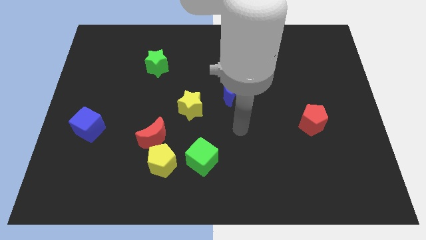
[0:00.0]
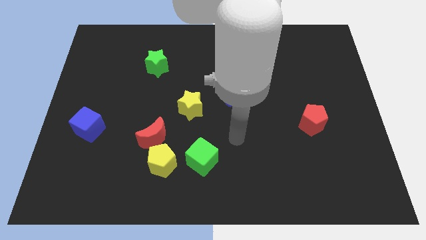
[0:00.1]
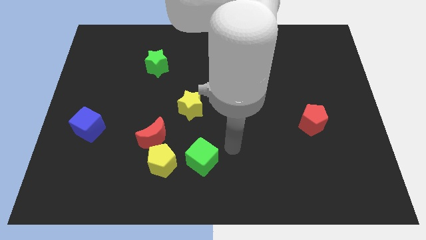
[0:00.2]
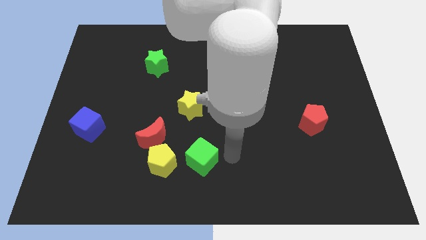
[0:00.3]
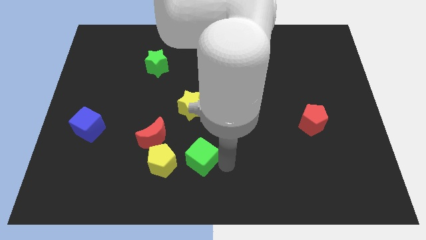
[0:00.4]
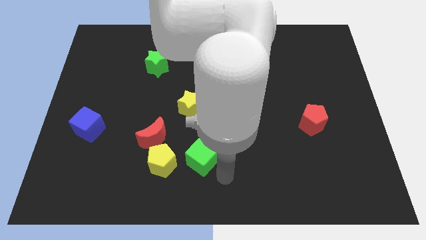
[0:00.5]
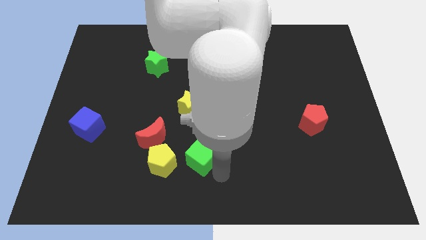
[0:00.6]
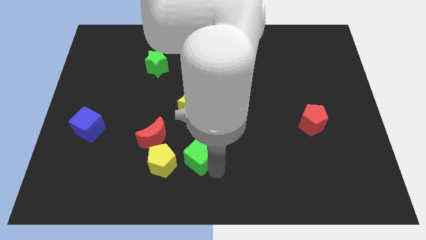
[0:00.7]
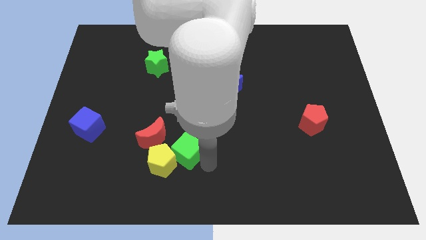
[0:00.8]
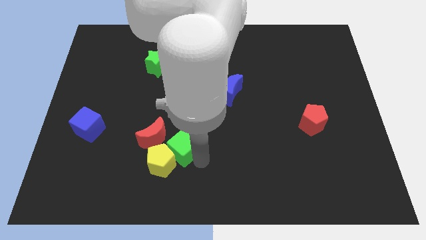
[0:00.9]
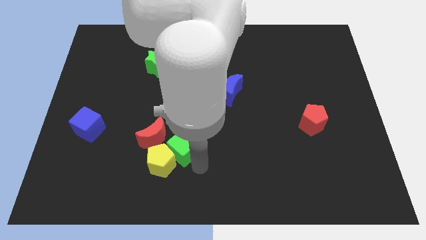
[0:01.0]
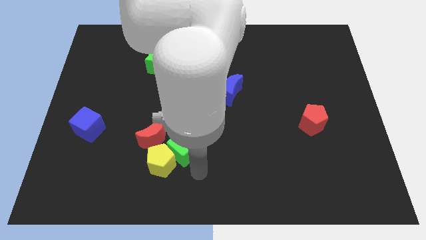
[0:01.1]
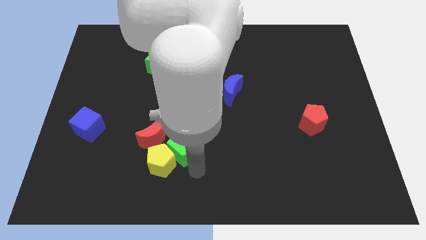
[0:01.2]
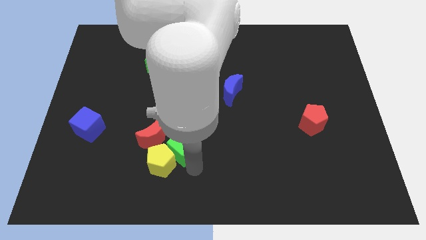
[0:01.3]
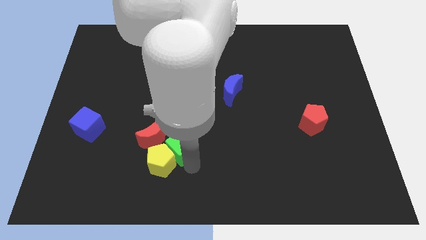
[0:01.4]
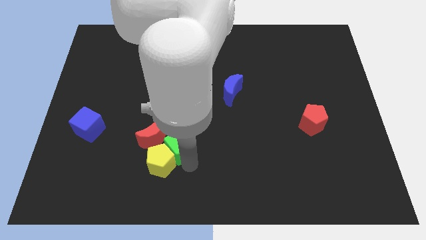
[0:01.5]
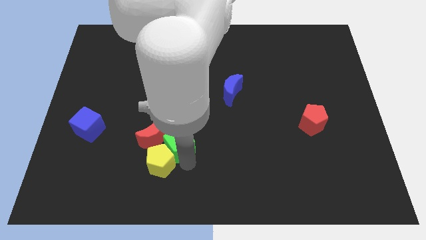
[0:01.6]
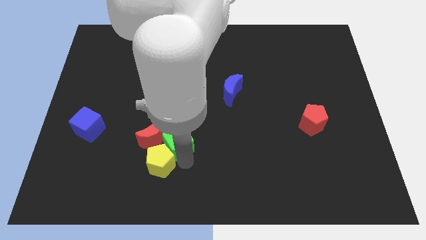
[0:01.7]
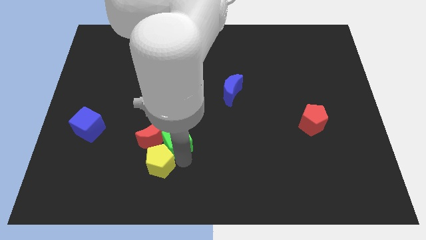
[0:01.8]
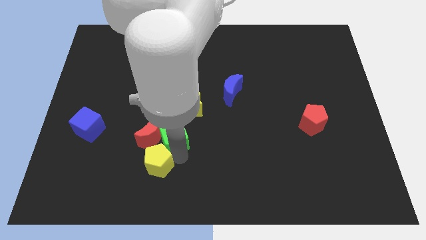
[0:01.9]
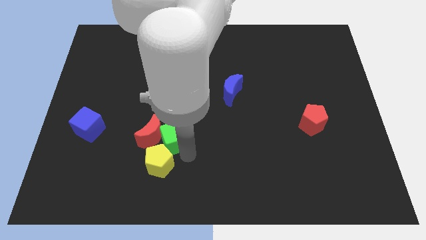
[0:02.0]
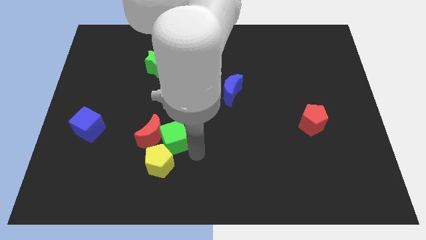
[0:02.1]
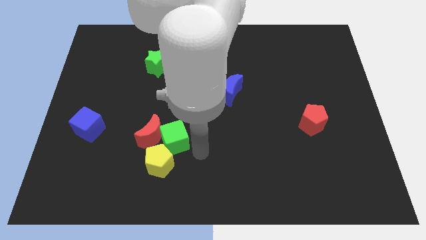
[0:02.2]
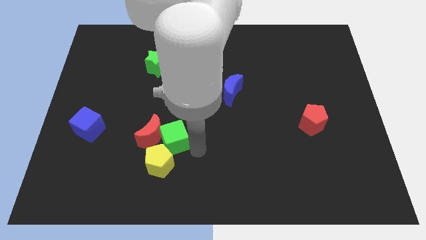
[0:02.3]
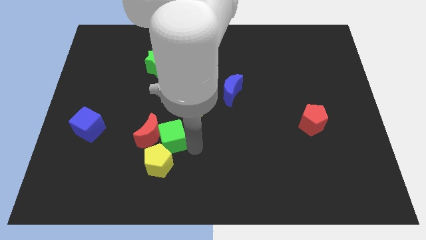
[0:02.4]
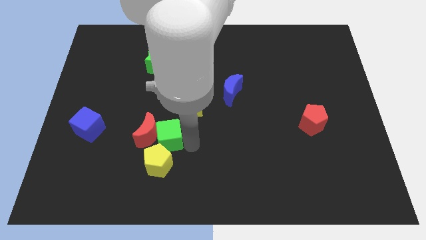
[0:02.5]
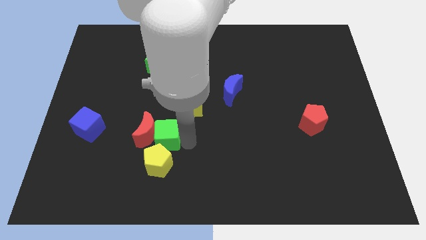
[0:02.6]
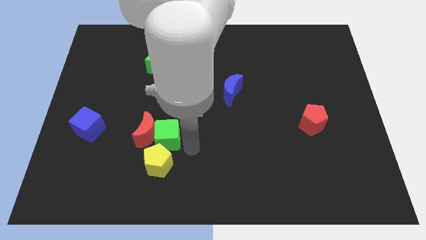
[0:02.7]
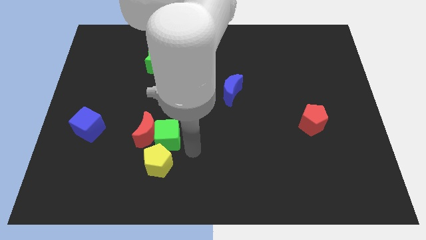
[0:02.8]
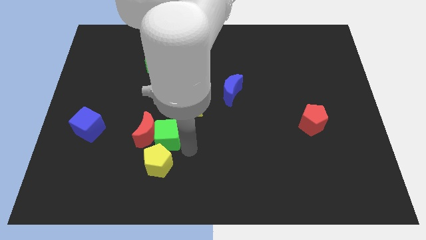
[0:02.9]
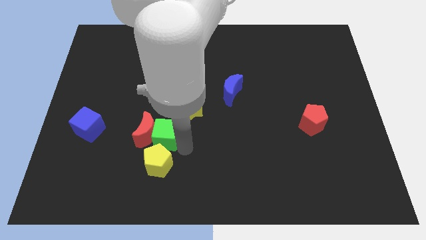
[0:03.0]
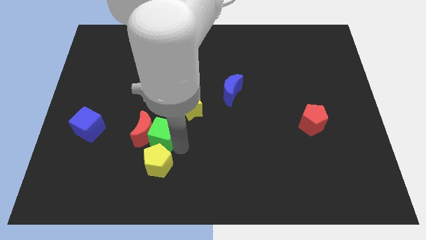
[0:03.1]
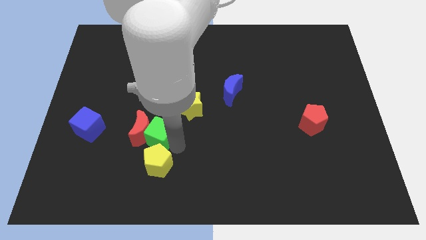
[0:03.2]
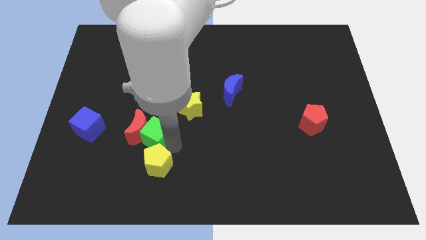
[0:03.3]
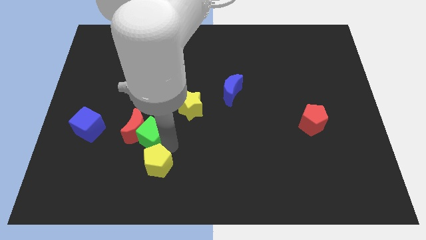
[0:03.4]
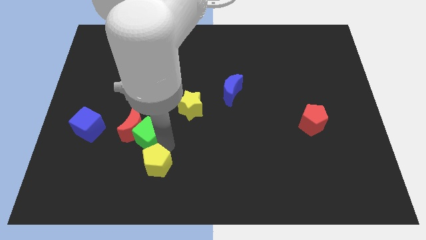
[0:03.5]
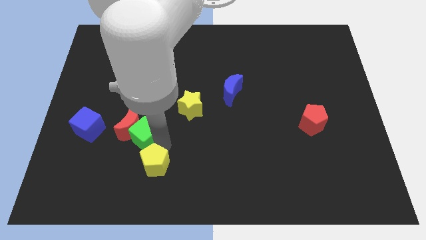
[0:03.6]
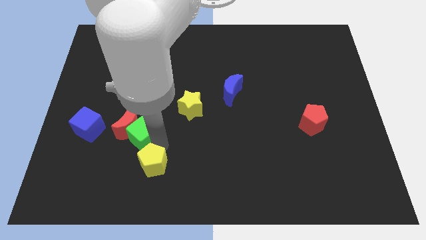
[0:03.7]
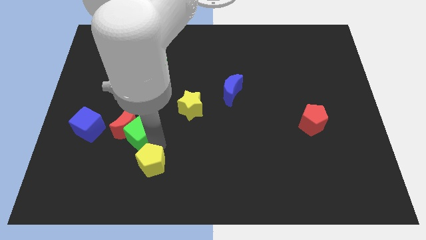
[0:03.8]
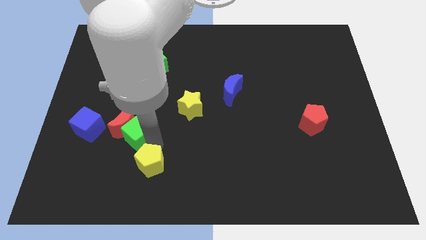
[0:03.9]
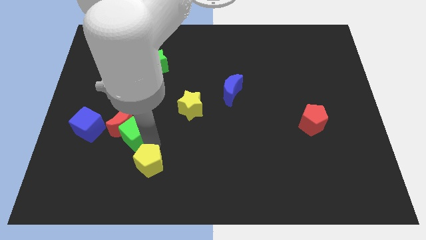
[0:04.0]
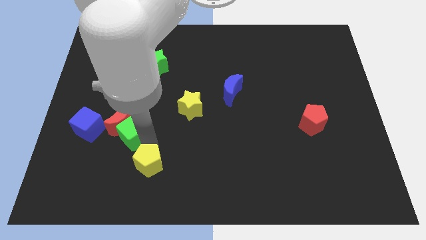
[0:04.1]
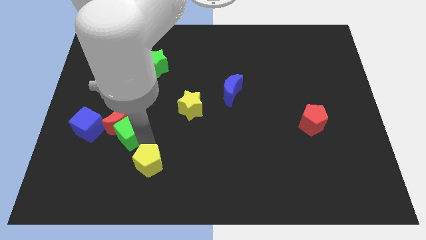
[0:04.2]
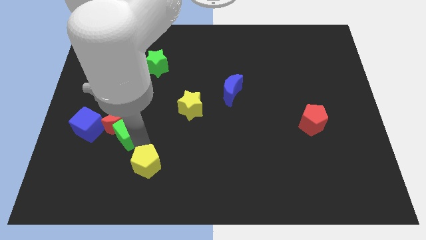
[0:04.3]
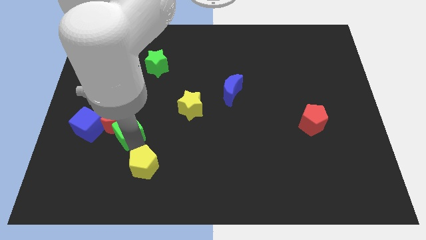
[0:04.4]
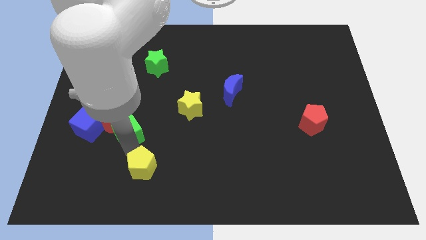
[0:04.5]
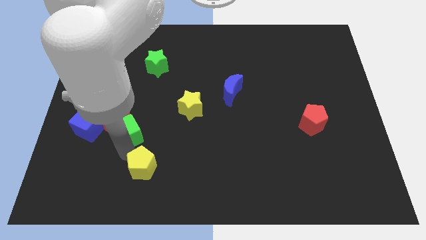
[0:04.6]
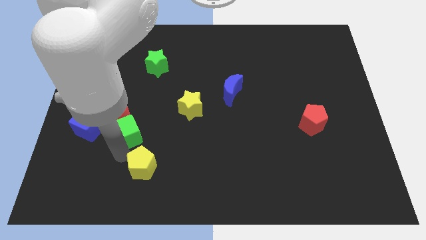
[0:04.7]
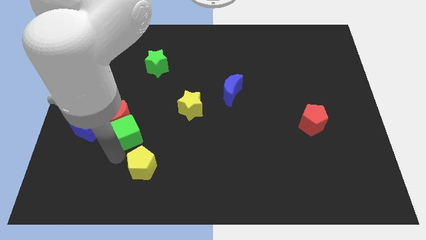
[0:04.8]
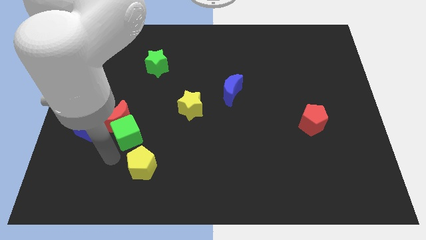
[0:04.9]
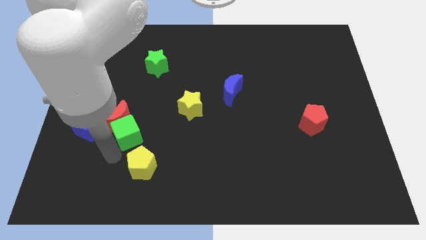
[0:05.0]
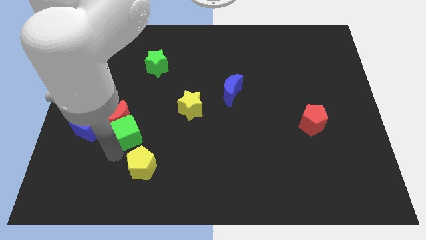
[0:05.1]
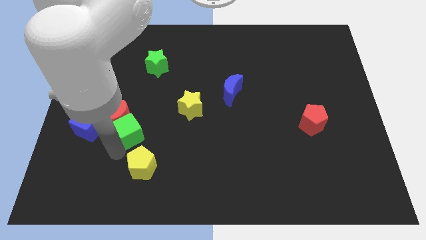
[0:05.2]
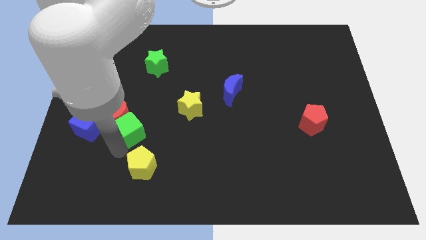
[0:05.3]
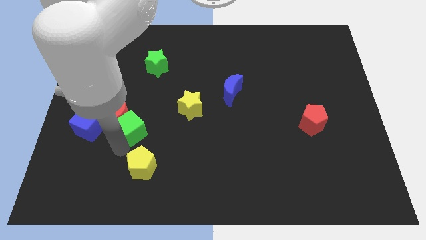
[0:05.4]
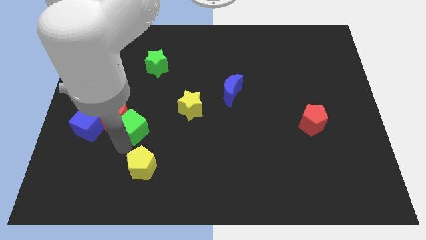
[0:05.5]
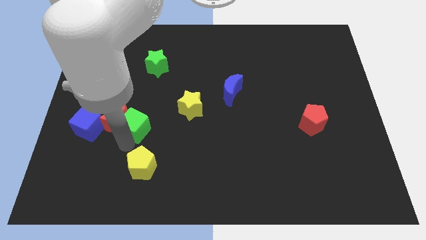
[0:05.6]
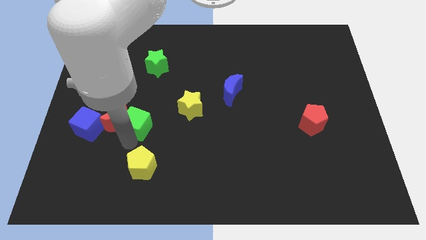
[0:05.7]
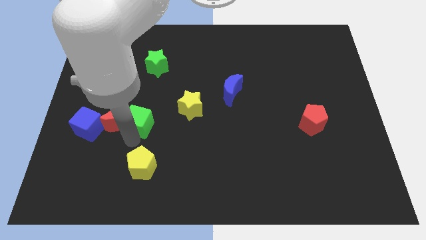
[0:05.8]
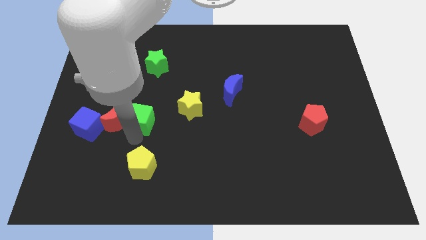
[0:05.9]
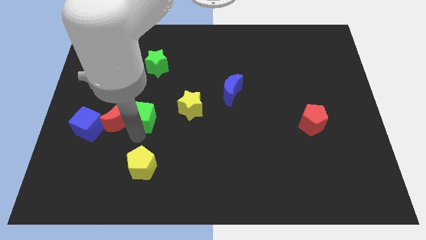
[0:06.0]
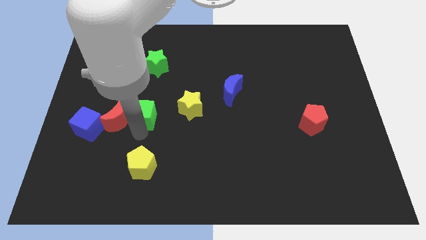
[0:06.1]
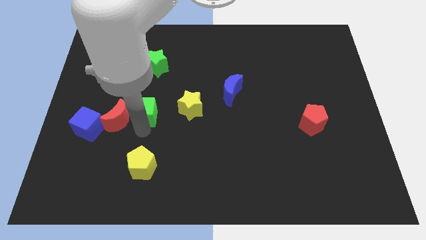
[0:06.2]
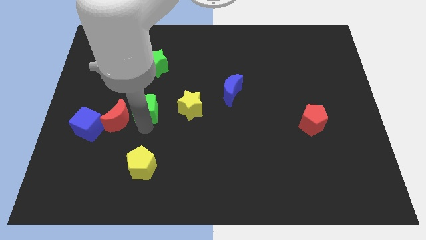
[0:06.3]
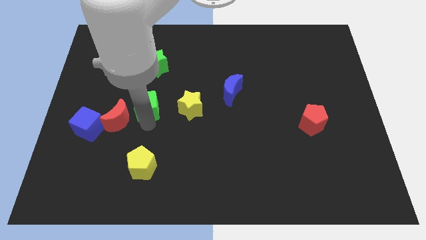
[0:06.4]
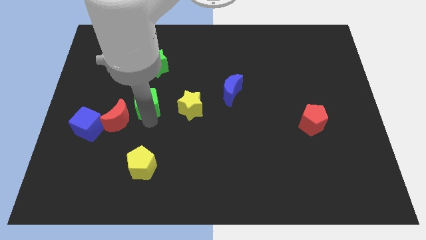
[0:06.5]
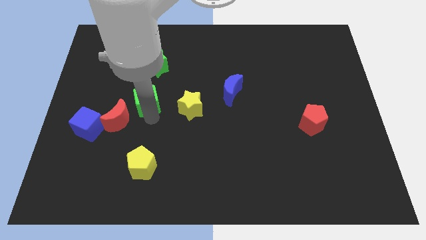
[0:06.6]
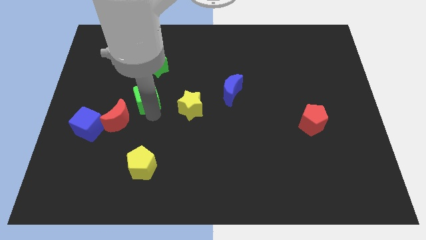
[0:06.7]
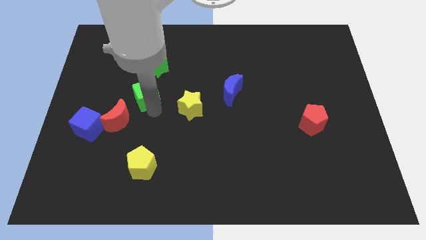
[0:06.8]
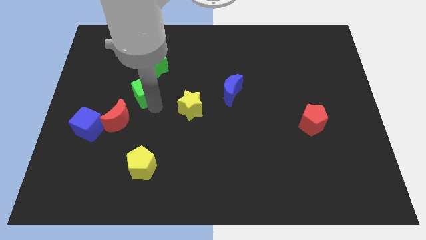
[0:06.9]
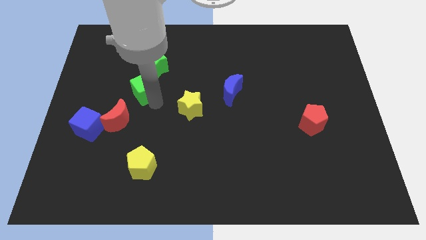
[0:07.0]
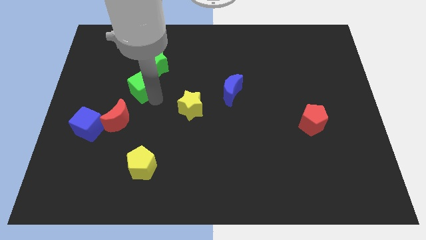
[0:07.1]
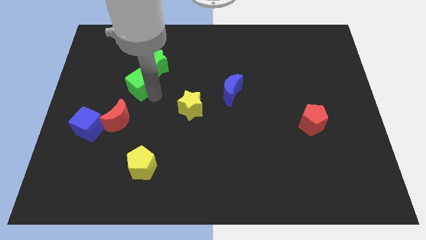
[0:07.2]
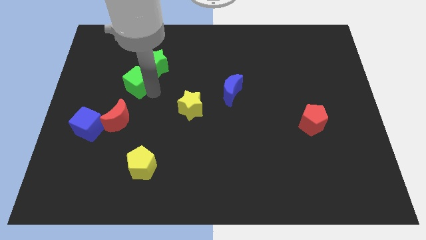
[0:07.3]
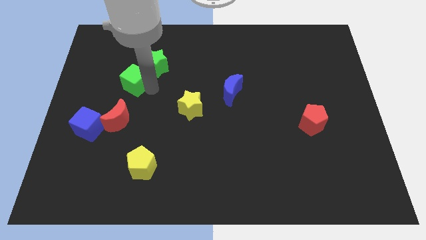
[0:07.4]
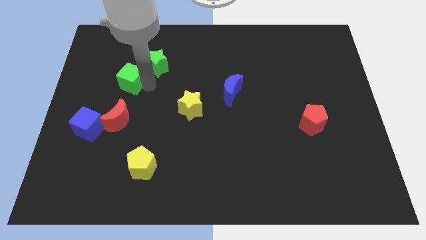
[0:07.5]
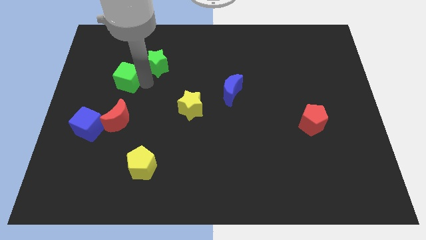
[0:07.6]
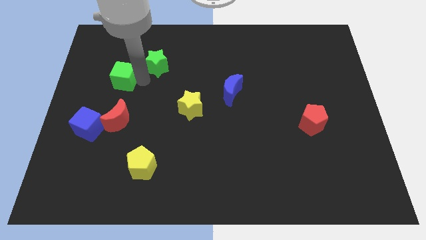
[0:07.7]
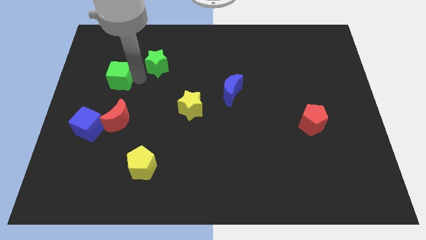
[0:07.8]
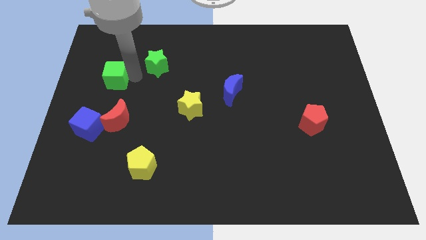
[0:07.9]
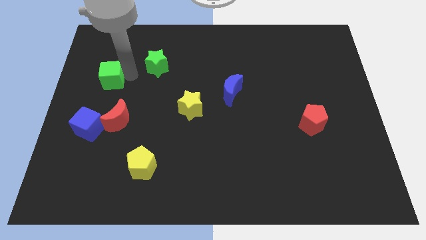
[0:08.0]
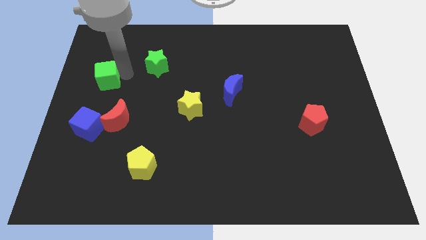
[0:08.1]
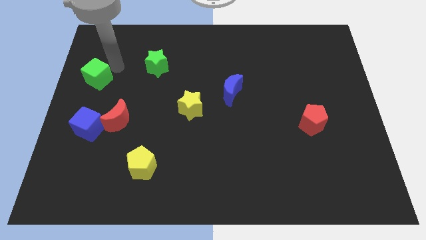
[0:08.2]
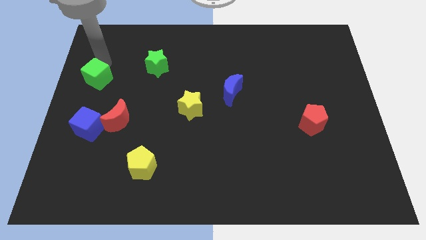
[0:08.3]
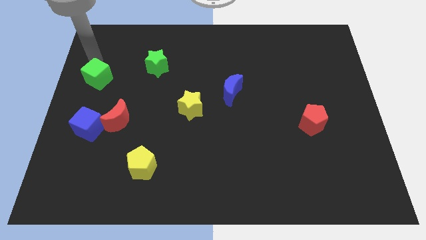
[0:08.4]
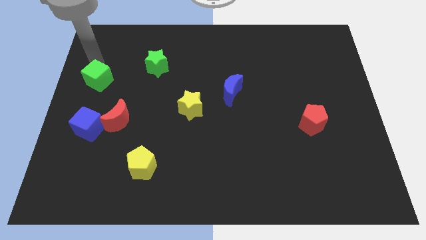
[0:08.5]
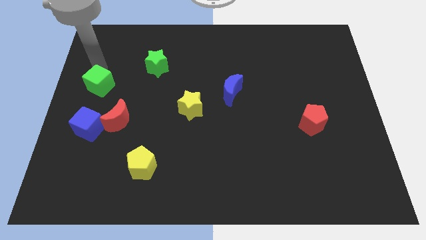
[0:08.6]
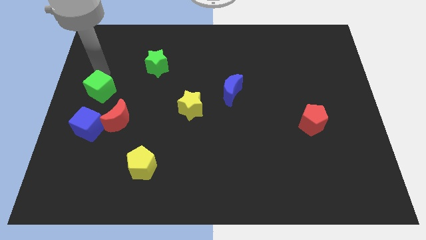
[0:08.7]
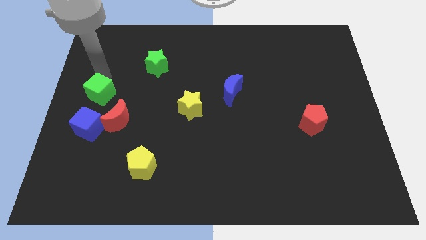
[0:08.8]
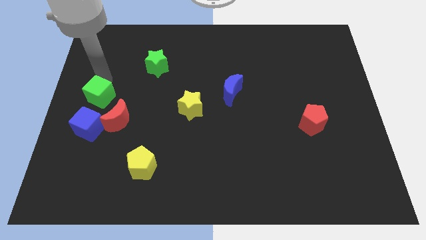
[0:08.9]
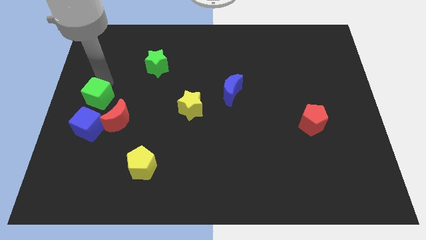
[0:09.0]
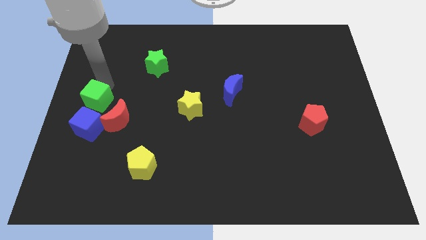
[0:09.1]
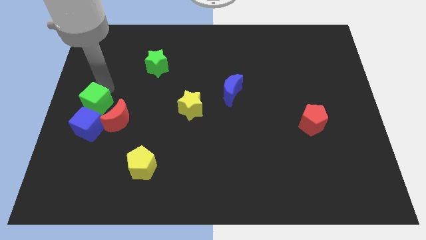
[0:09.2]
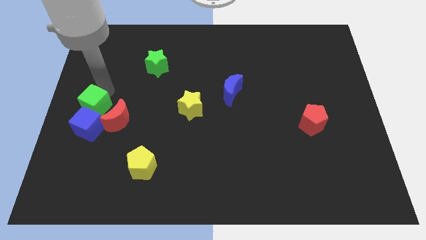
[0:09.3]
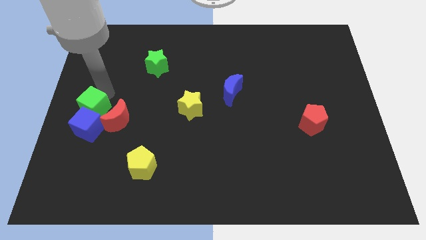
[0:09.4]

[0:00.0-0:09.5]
slide the green cube next to the blue cube
